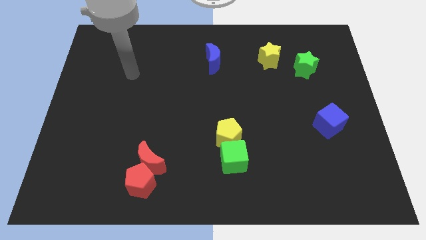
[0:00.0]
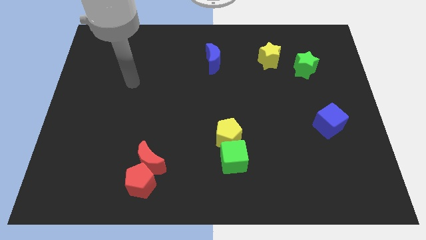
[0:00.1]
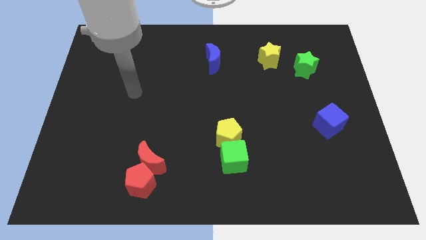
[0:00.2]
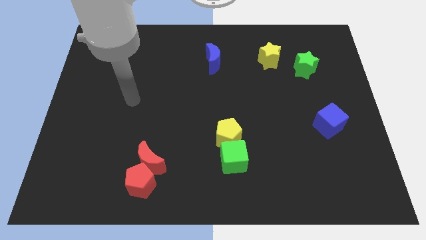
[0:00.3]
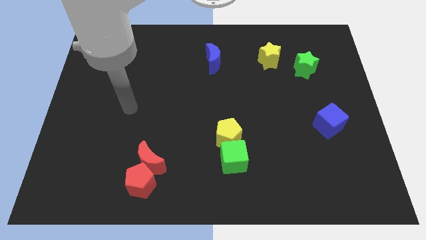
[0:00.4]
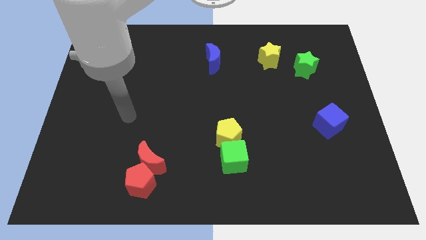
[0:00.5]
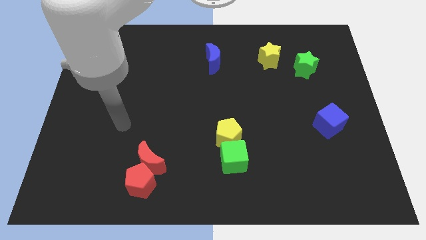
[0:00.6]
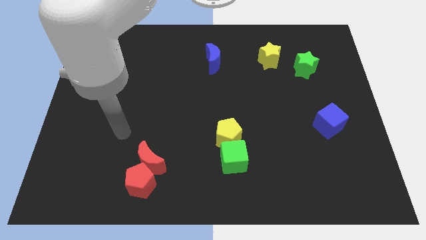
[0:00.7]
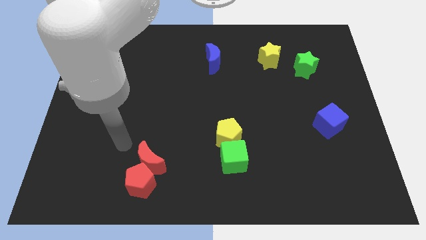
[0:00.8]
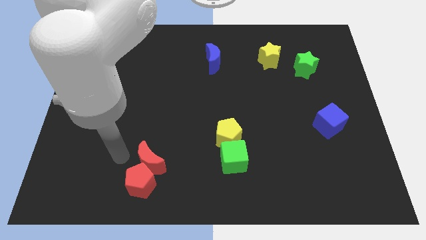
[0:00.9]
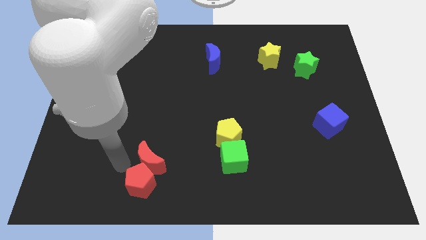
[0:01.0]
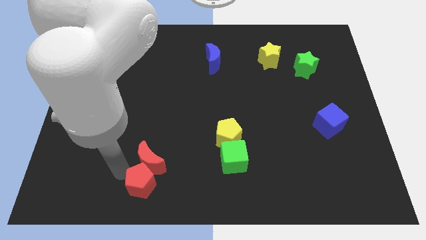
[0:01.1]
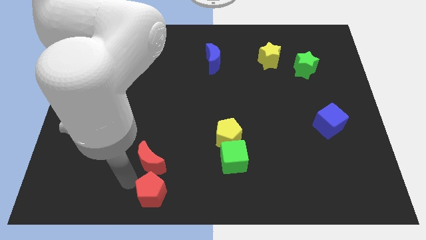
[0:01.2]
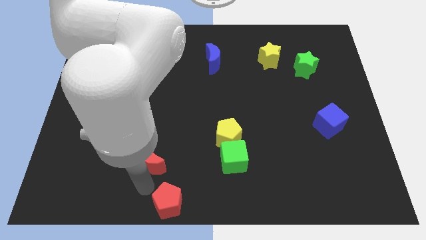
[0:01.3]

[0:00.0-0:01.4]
separate the red moon from the red pentagon

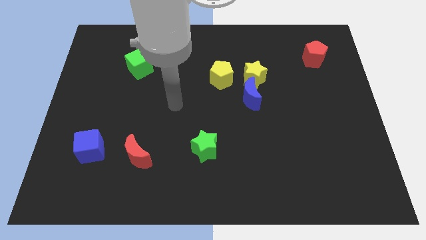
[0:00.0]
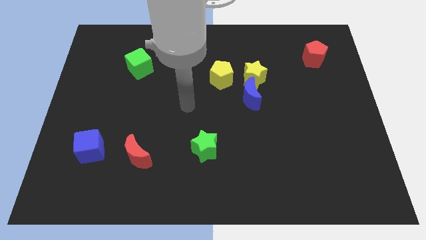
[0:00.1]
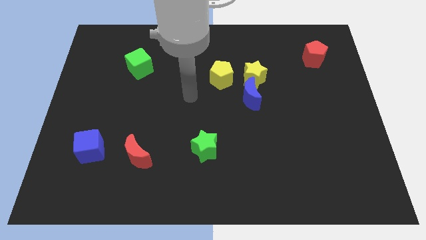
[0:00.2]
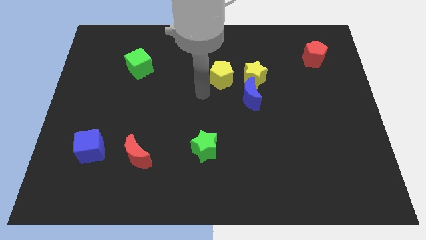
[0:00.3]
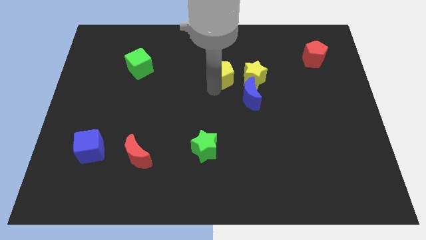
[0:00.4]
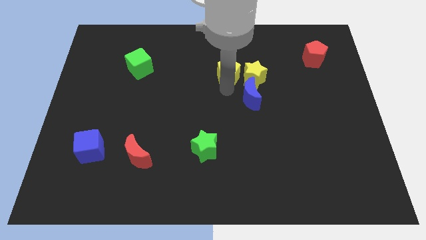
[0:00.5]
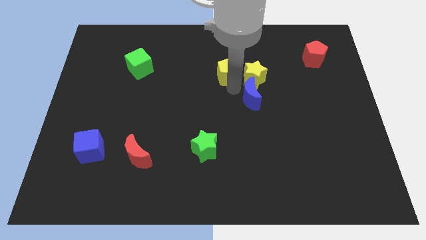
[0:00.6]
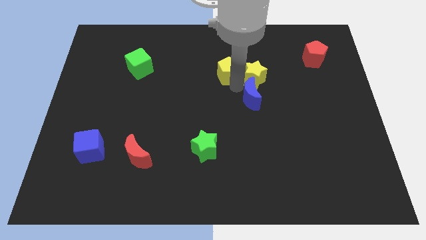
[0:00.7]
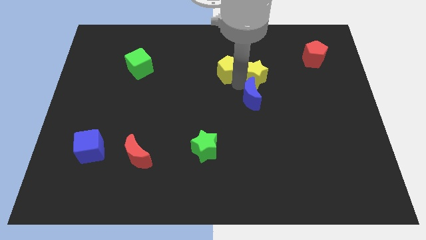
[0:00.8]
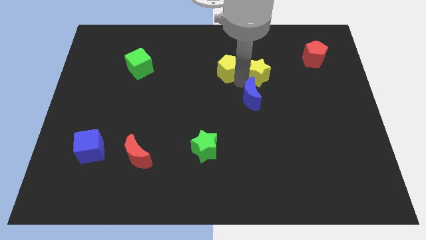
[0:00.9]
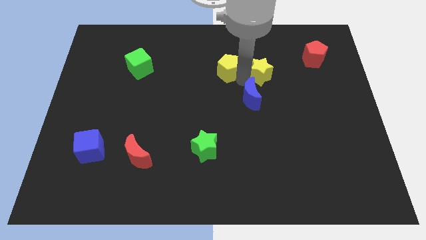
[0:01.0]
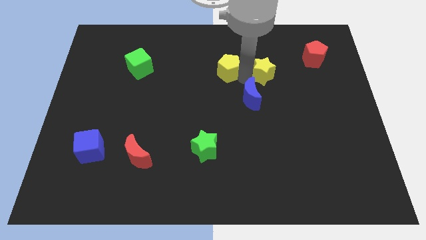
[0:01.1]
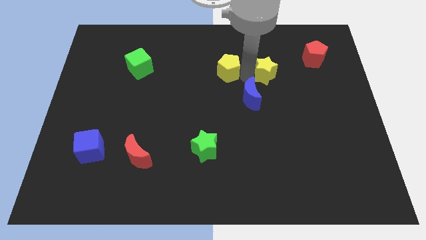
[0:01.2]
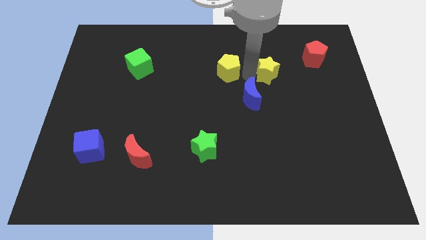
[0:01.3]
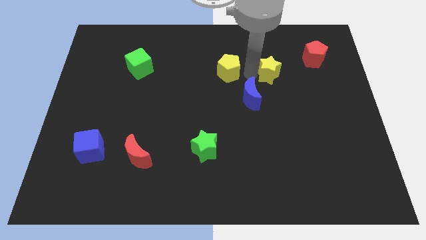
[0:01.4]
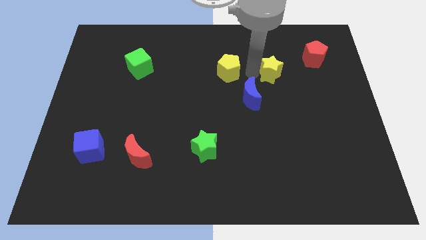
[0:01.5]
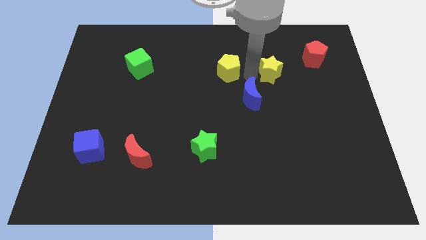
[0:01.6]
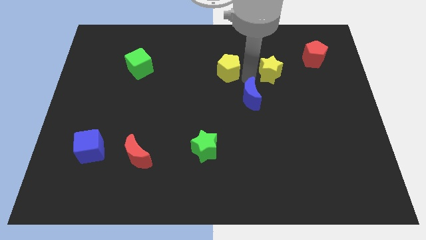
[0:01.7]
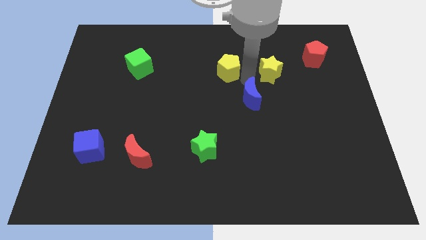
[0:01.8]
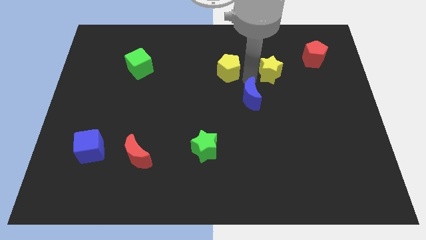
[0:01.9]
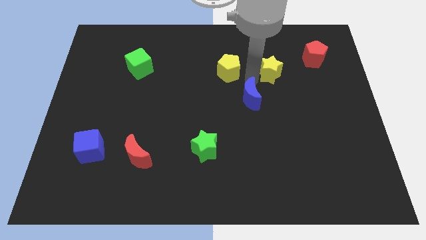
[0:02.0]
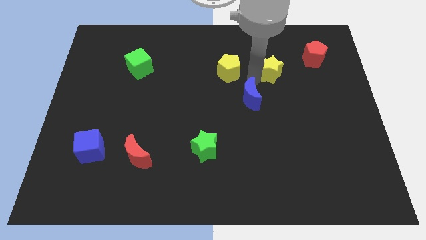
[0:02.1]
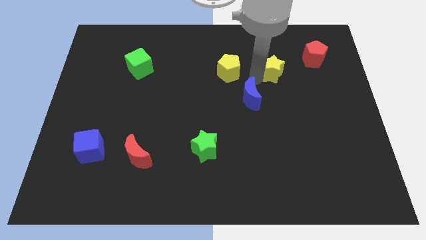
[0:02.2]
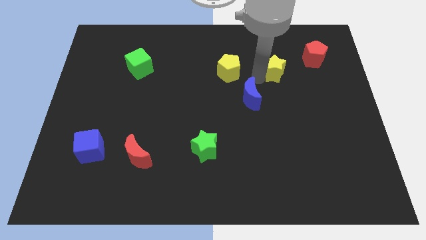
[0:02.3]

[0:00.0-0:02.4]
pull the yellow star apart from the blue moon and yellow pentagon

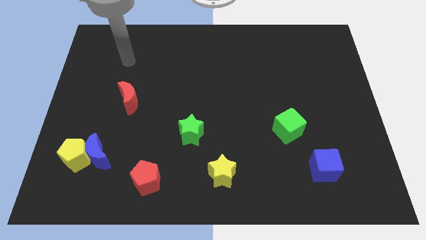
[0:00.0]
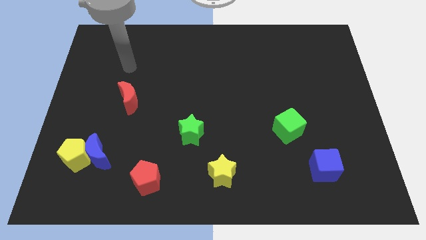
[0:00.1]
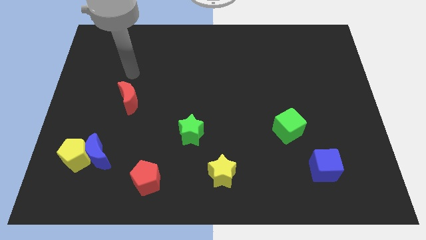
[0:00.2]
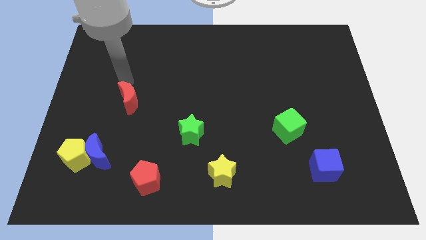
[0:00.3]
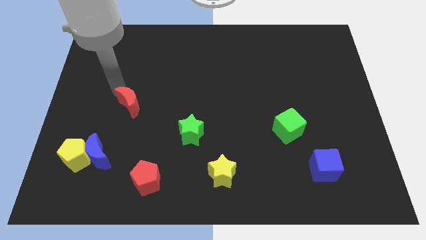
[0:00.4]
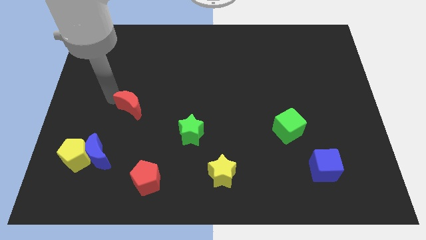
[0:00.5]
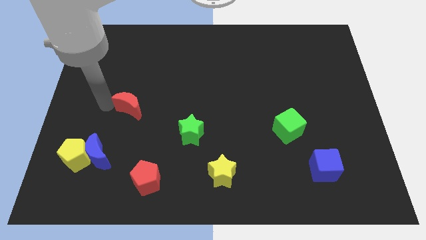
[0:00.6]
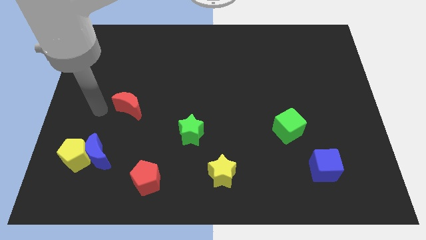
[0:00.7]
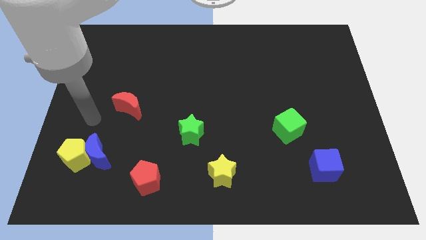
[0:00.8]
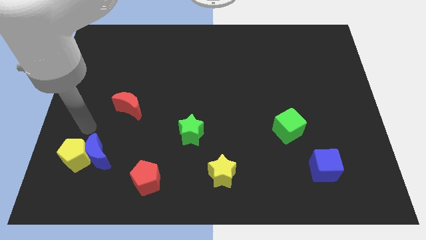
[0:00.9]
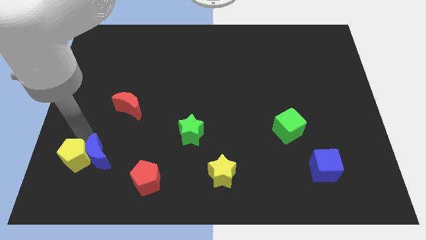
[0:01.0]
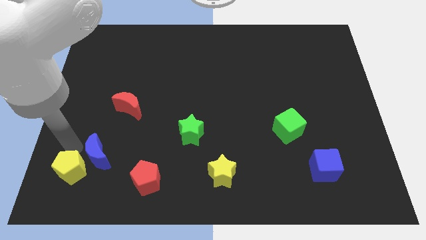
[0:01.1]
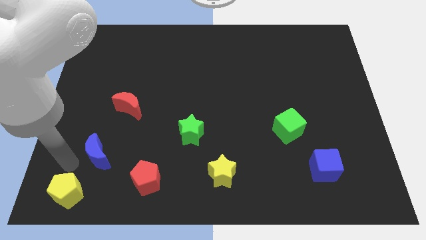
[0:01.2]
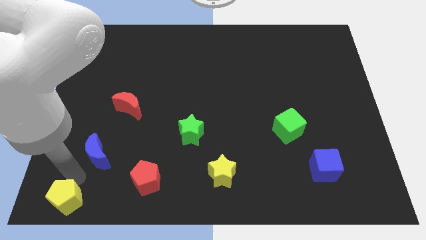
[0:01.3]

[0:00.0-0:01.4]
pull the blue moon apart from the yellow pentagon

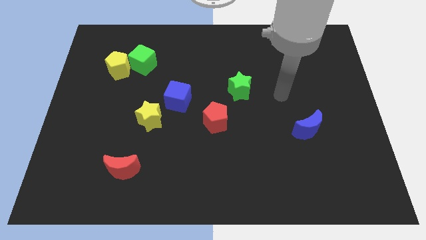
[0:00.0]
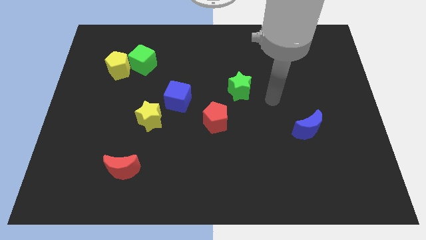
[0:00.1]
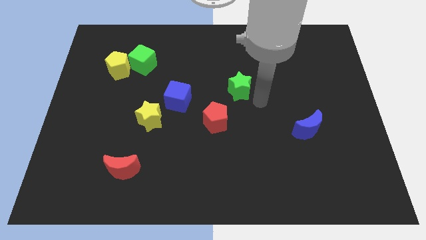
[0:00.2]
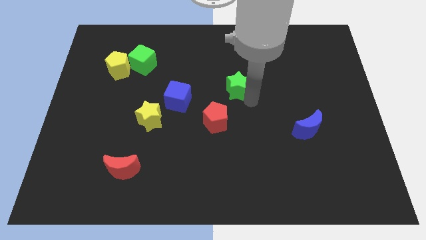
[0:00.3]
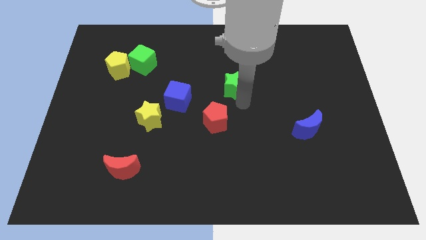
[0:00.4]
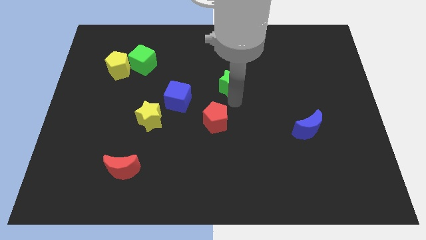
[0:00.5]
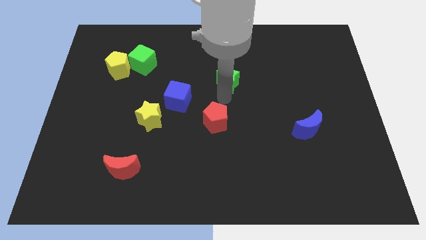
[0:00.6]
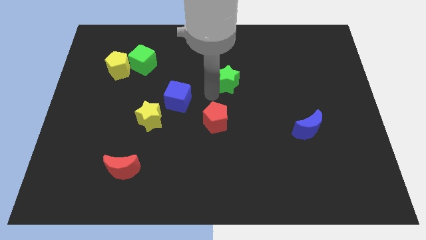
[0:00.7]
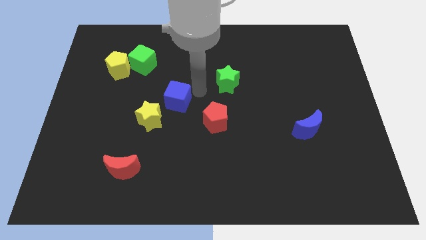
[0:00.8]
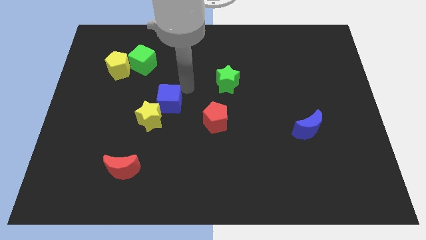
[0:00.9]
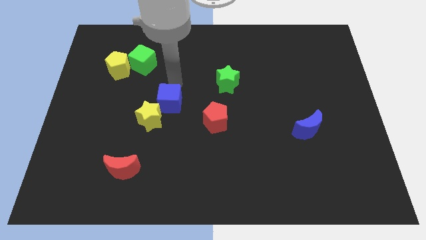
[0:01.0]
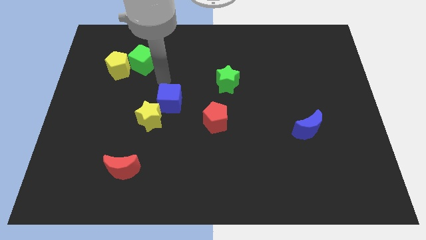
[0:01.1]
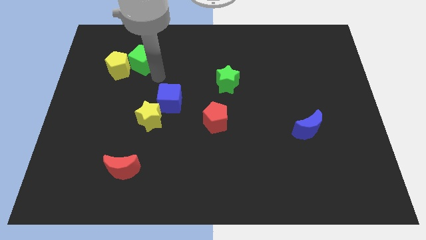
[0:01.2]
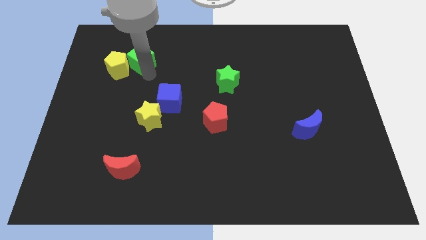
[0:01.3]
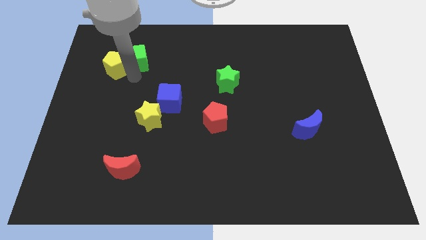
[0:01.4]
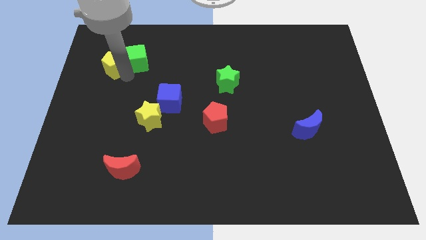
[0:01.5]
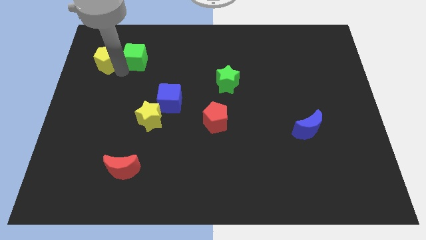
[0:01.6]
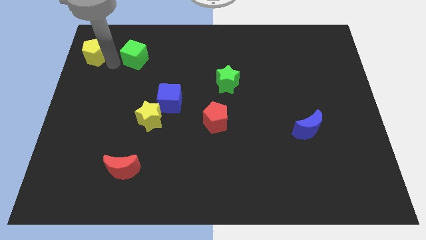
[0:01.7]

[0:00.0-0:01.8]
pull the green cube apart from the yellow pentagon

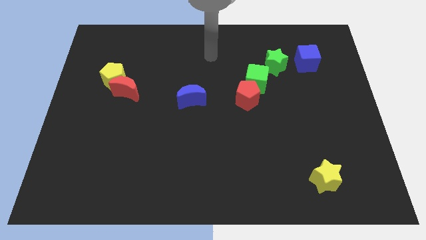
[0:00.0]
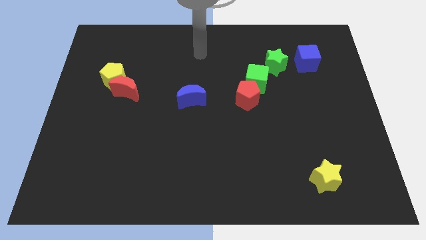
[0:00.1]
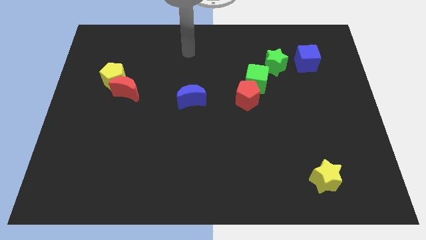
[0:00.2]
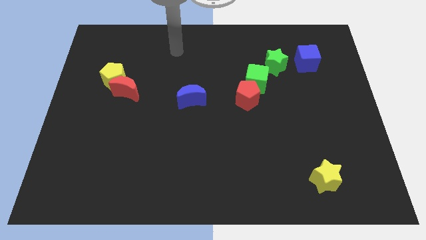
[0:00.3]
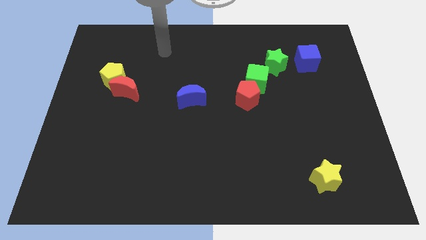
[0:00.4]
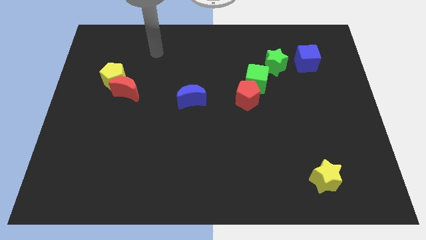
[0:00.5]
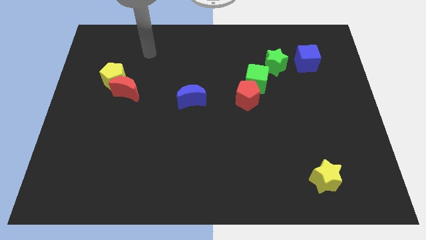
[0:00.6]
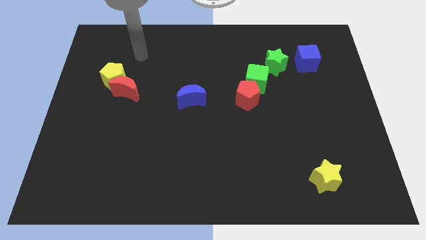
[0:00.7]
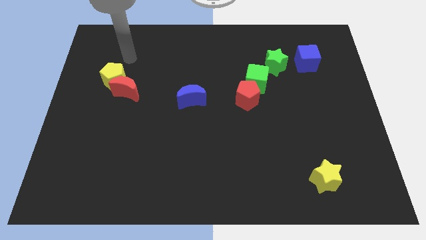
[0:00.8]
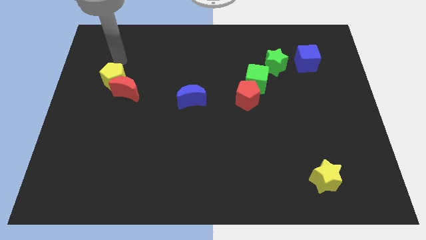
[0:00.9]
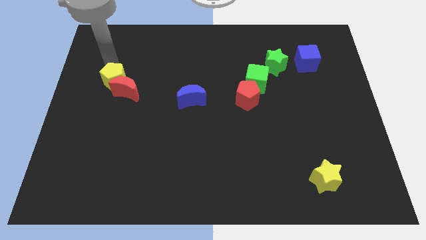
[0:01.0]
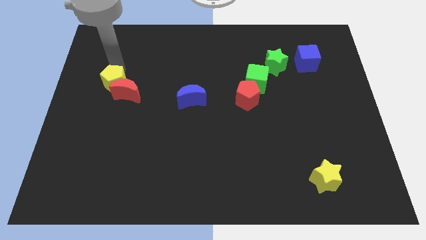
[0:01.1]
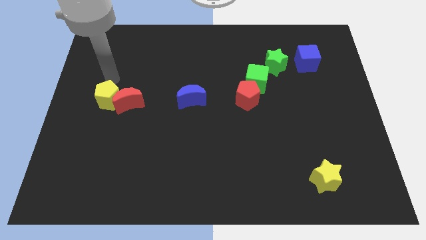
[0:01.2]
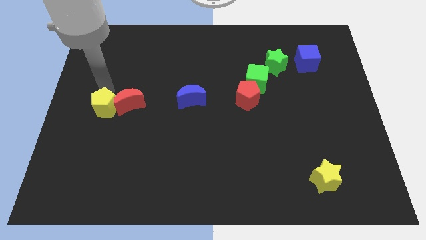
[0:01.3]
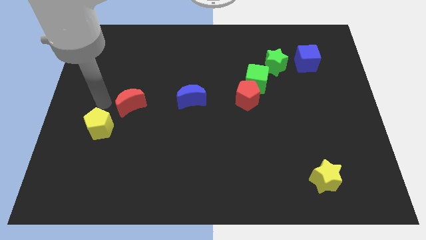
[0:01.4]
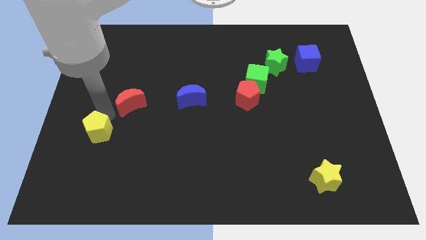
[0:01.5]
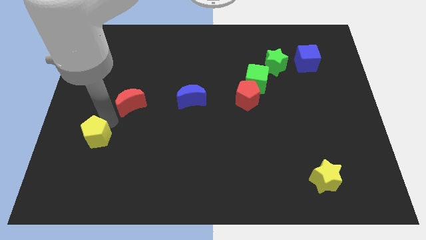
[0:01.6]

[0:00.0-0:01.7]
move the red moon away from the yellow pentagon

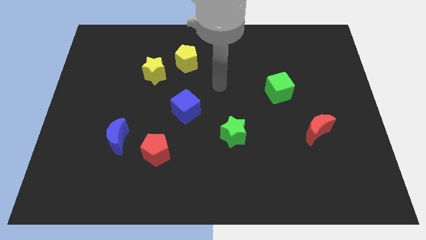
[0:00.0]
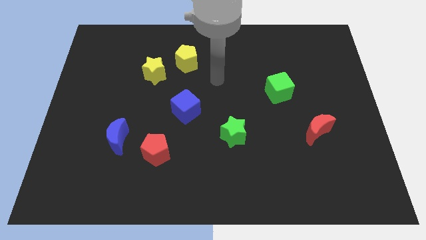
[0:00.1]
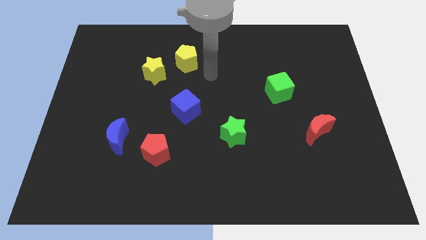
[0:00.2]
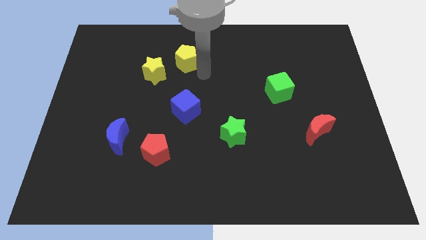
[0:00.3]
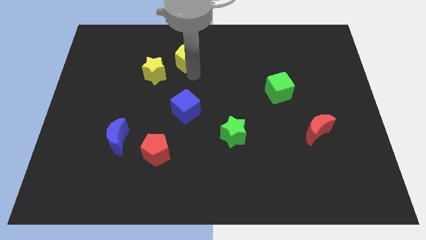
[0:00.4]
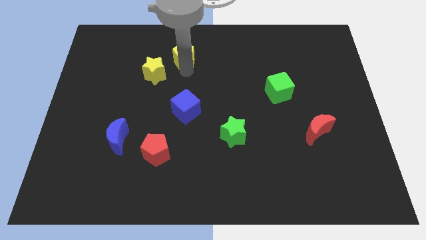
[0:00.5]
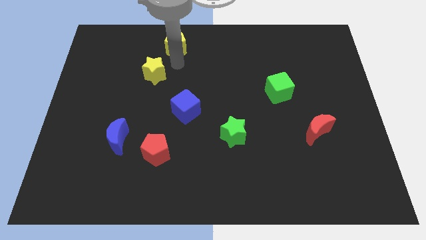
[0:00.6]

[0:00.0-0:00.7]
separate the yellow star from the yellow pentagon
